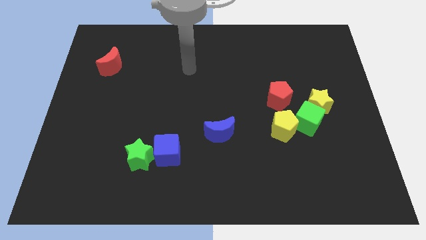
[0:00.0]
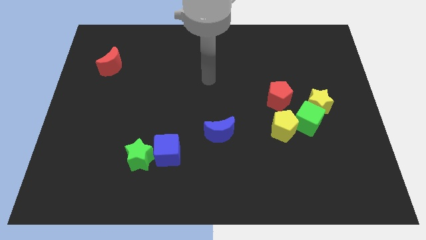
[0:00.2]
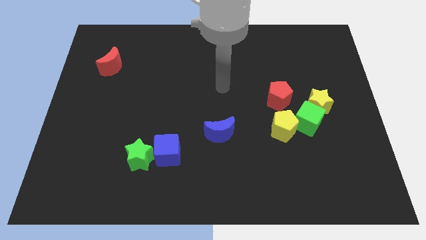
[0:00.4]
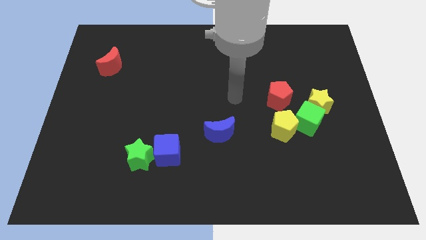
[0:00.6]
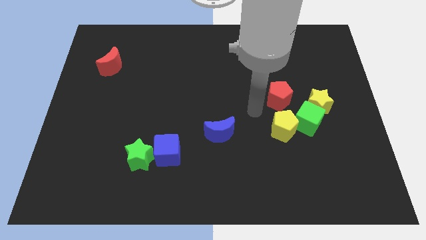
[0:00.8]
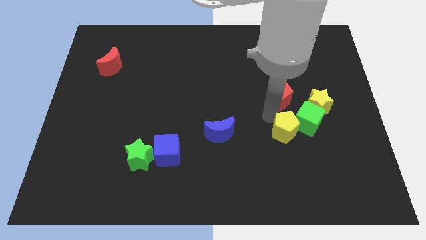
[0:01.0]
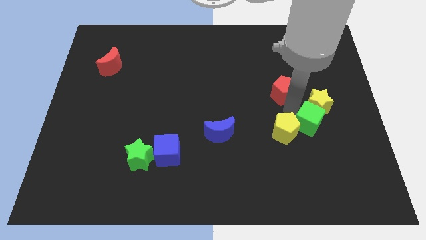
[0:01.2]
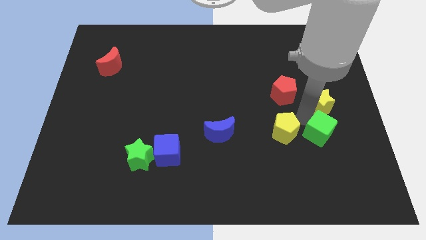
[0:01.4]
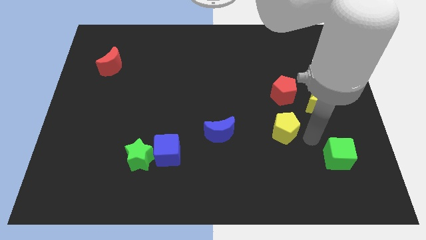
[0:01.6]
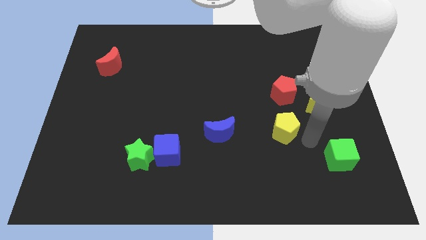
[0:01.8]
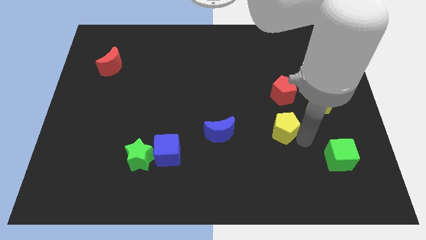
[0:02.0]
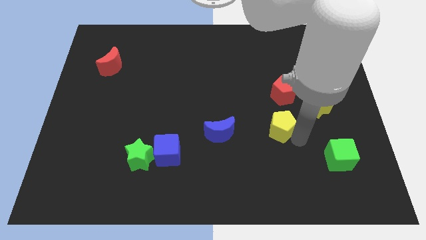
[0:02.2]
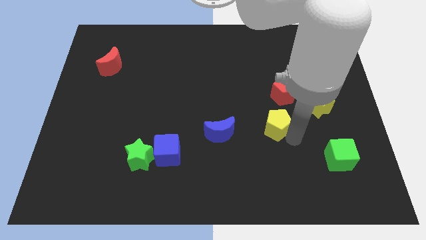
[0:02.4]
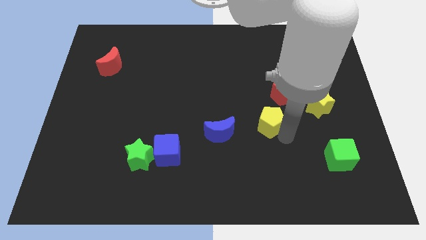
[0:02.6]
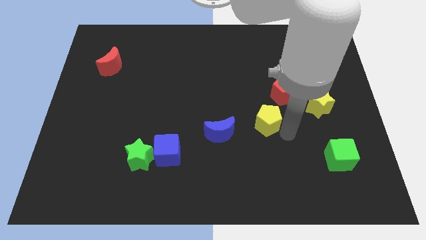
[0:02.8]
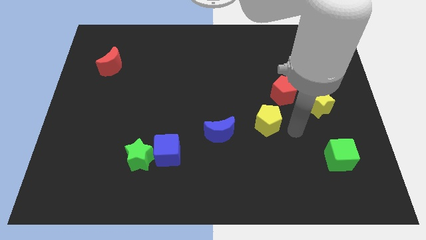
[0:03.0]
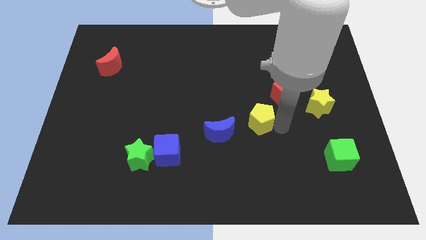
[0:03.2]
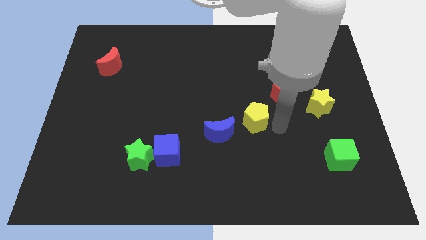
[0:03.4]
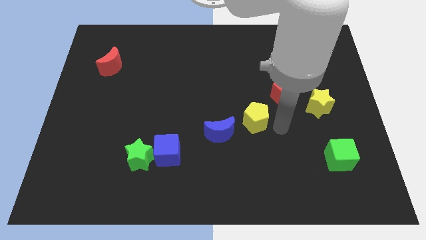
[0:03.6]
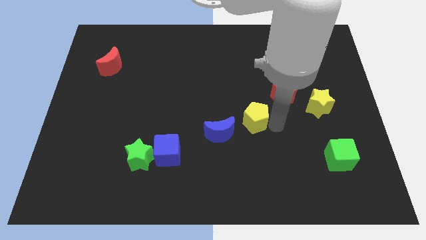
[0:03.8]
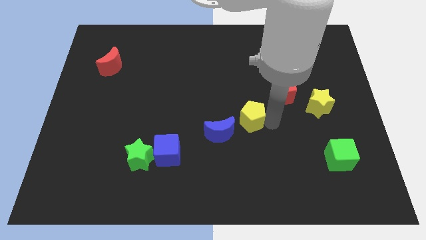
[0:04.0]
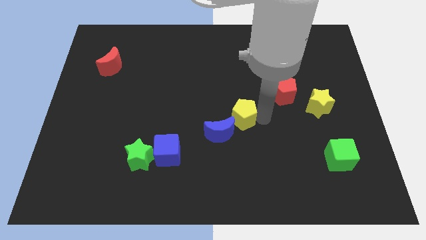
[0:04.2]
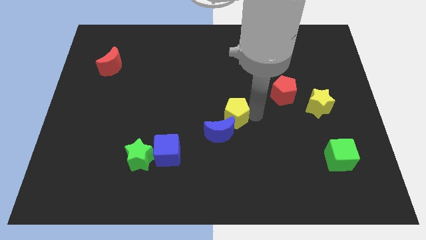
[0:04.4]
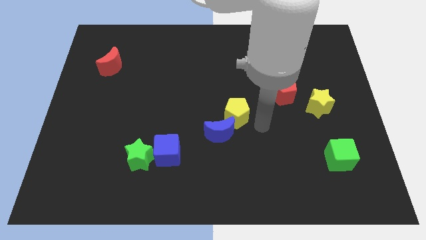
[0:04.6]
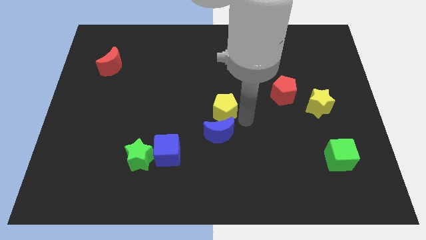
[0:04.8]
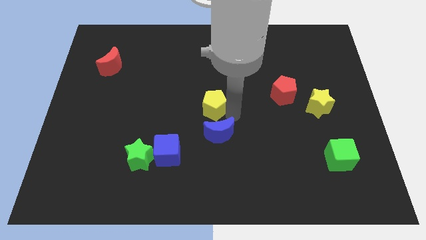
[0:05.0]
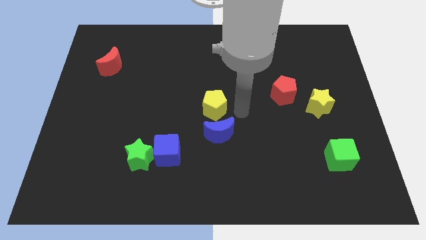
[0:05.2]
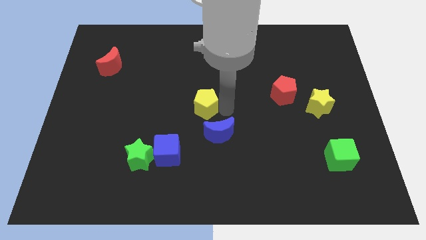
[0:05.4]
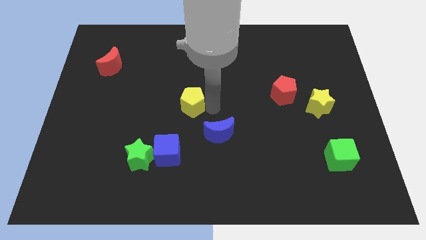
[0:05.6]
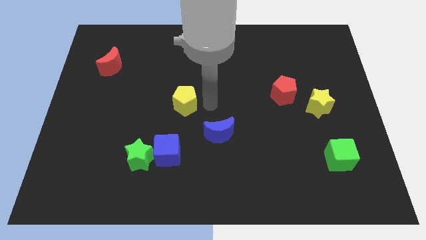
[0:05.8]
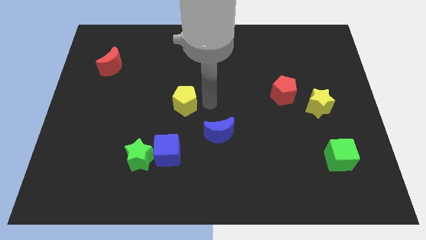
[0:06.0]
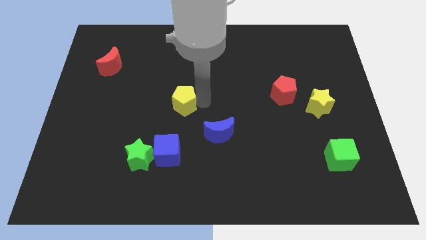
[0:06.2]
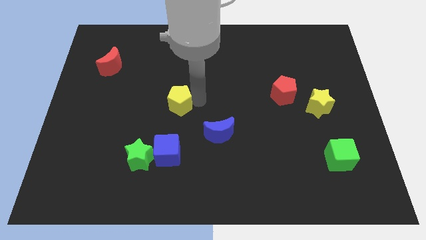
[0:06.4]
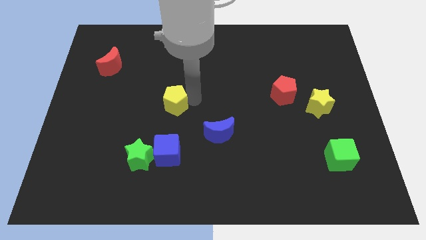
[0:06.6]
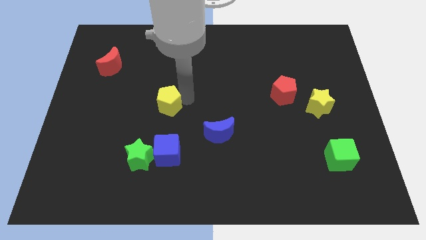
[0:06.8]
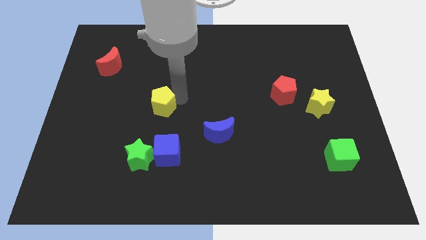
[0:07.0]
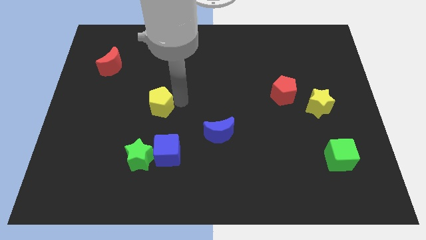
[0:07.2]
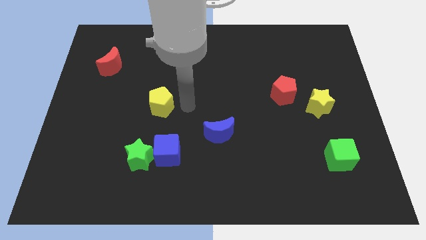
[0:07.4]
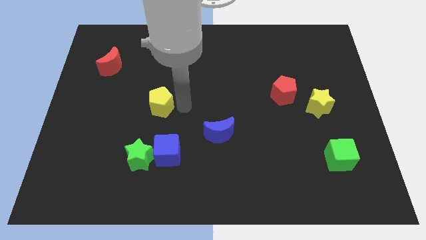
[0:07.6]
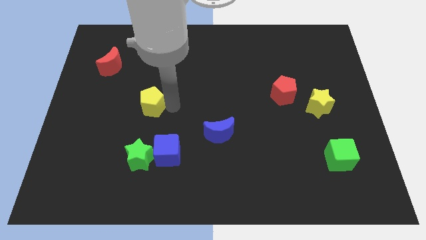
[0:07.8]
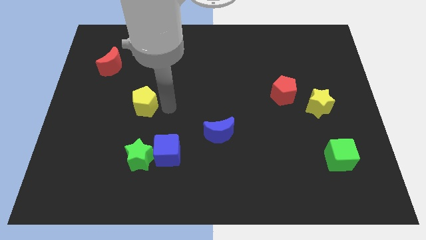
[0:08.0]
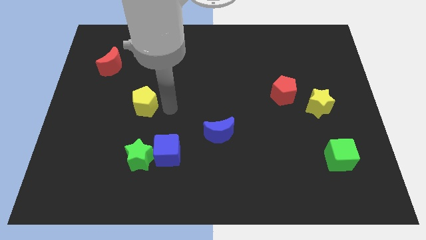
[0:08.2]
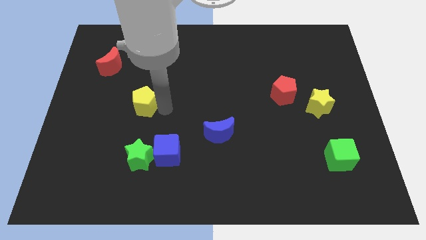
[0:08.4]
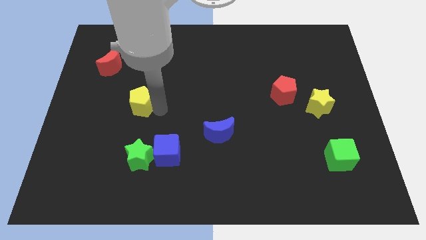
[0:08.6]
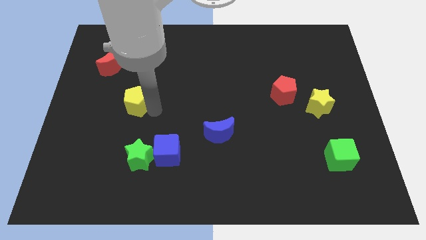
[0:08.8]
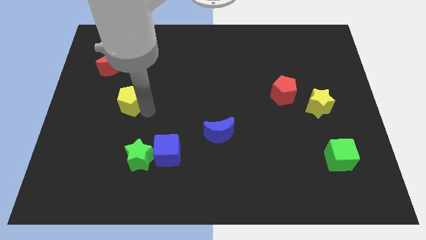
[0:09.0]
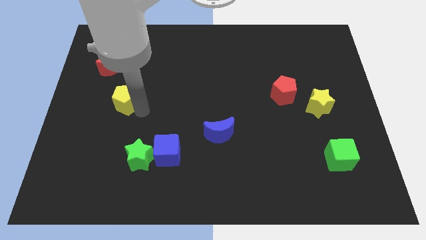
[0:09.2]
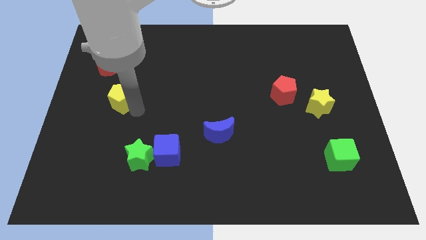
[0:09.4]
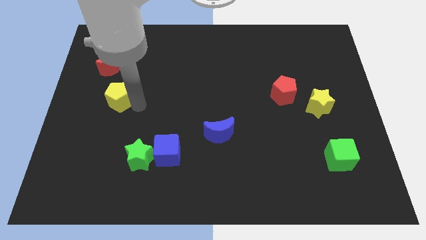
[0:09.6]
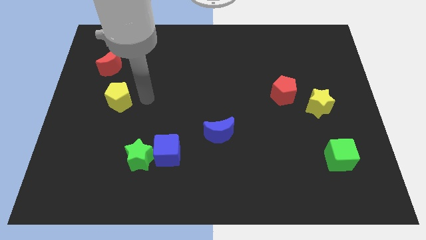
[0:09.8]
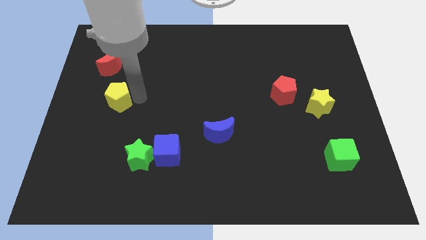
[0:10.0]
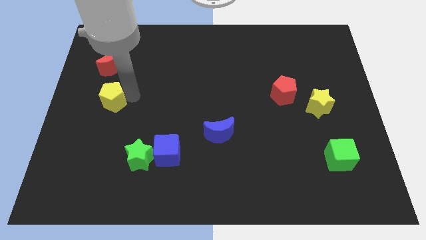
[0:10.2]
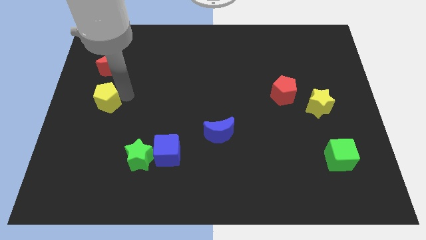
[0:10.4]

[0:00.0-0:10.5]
slide the yellow pentagon to the left side of the board

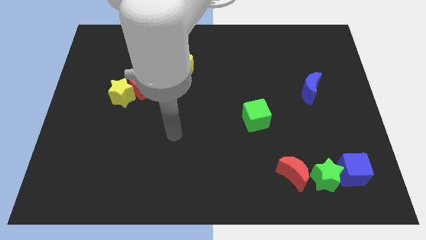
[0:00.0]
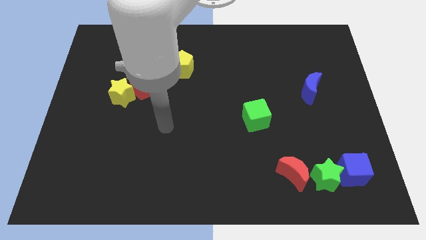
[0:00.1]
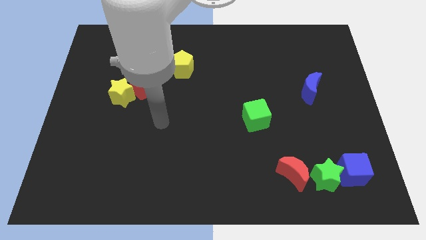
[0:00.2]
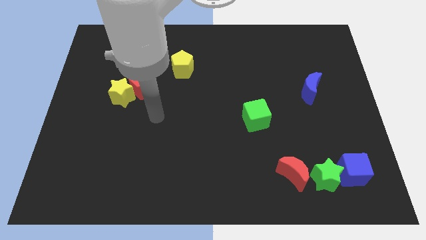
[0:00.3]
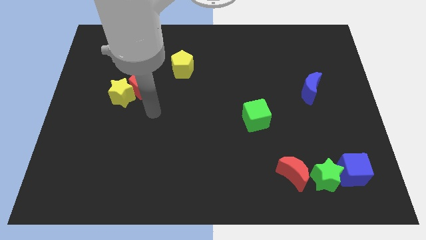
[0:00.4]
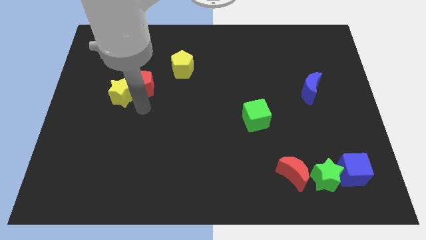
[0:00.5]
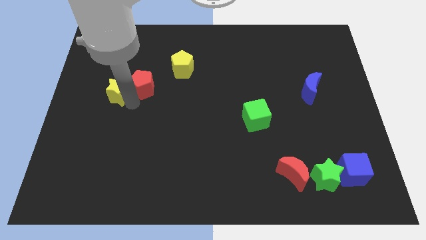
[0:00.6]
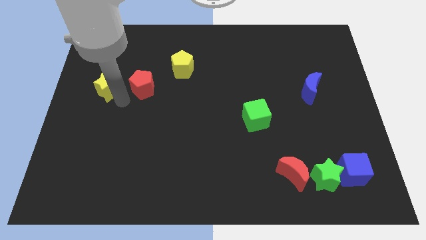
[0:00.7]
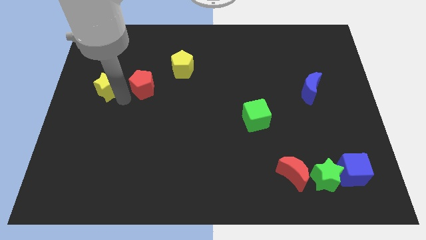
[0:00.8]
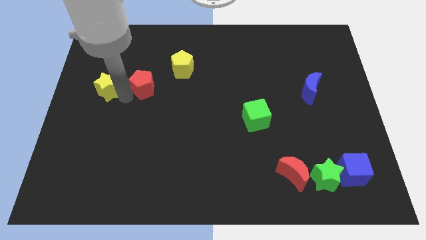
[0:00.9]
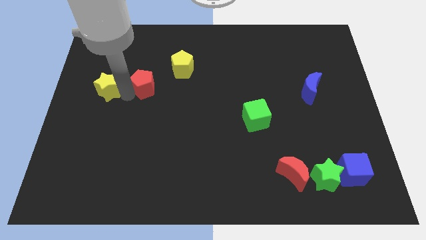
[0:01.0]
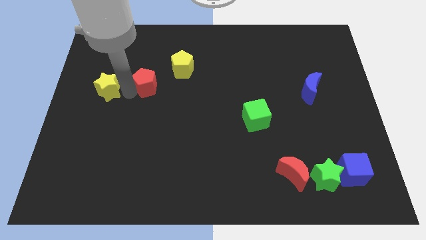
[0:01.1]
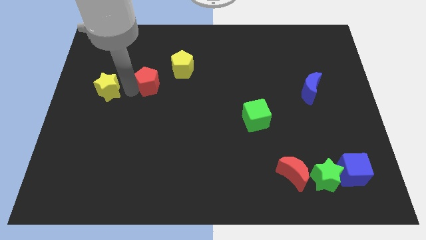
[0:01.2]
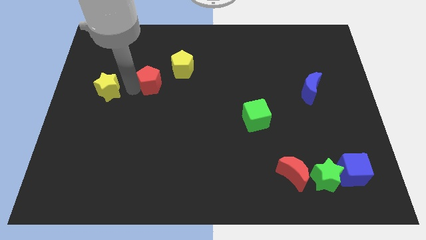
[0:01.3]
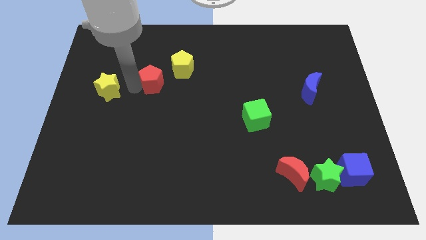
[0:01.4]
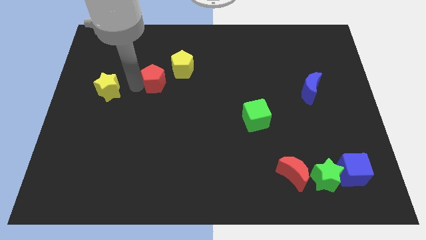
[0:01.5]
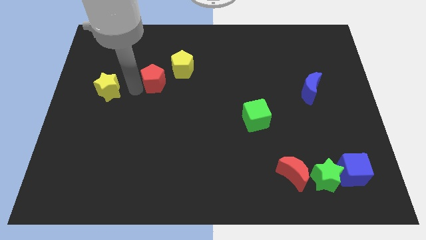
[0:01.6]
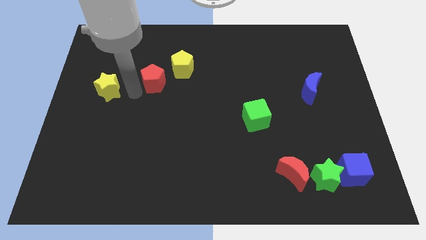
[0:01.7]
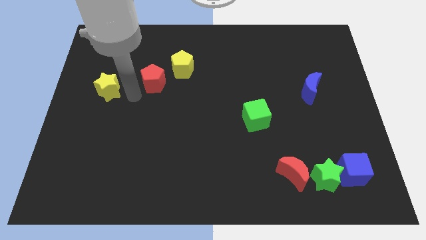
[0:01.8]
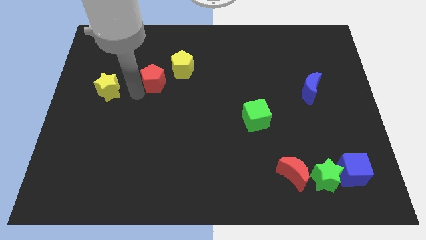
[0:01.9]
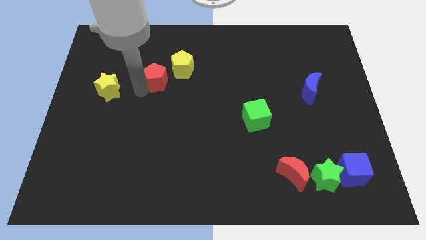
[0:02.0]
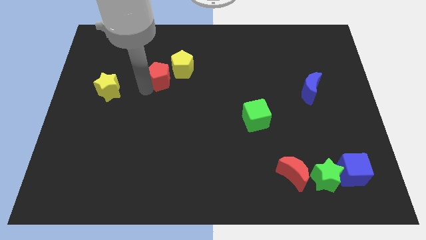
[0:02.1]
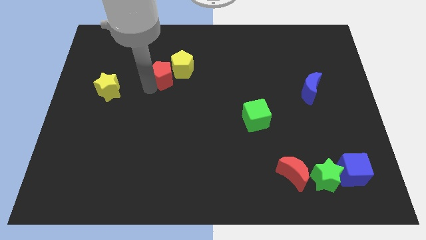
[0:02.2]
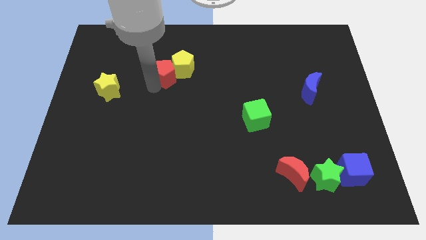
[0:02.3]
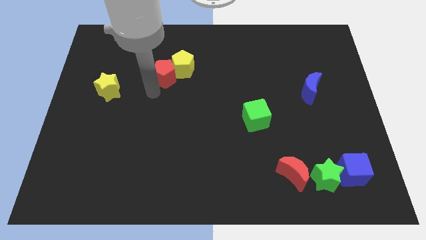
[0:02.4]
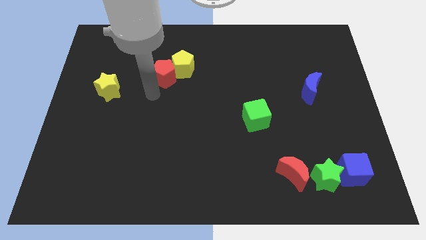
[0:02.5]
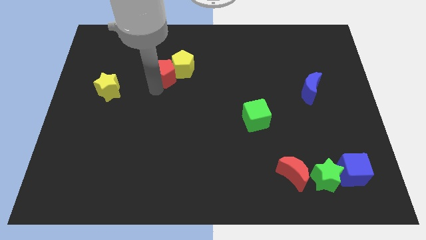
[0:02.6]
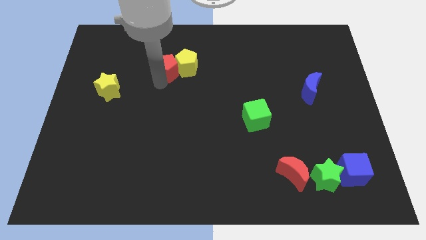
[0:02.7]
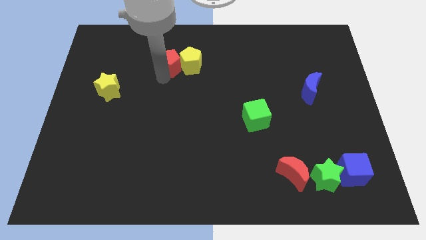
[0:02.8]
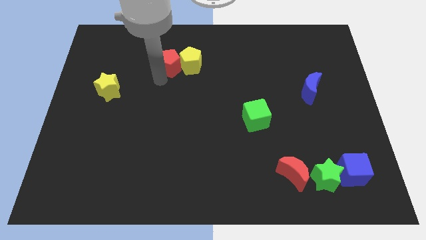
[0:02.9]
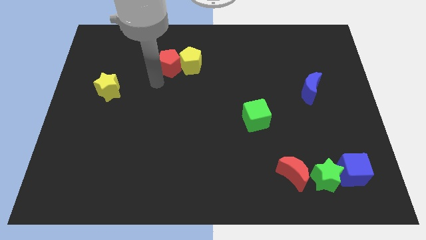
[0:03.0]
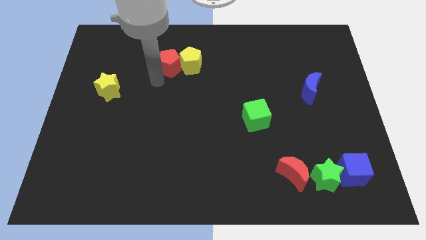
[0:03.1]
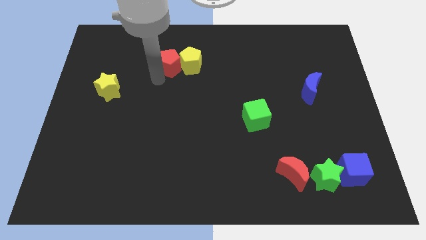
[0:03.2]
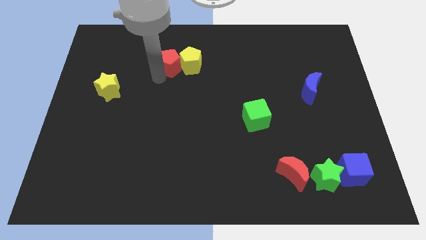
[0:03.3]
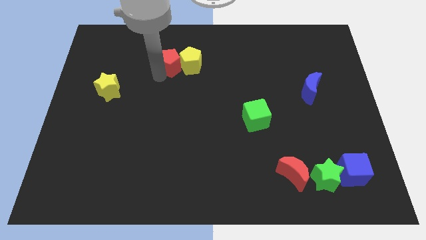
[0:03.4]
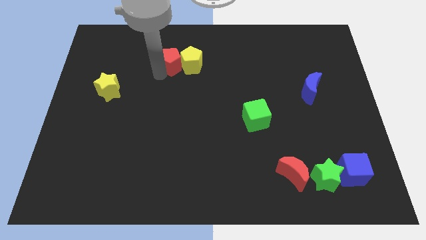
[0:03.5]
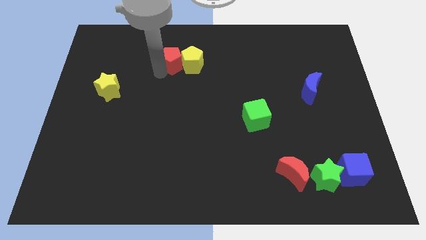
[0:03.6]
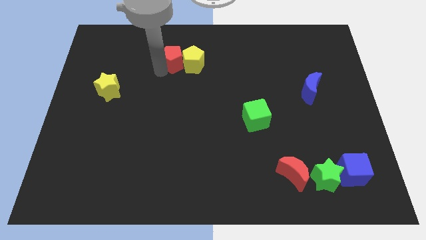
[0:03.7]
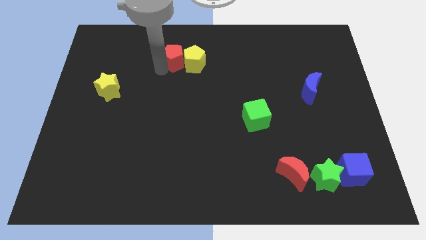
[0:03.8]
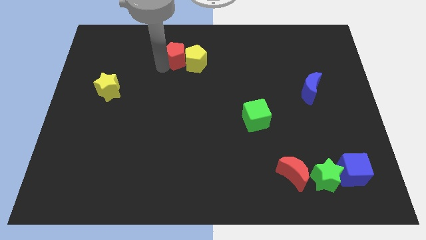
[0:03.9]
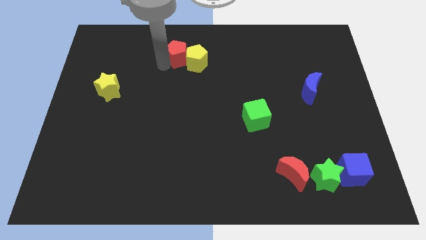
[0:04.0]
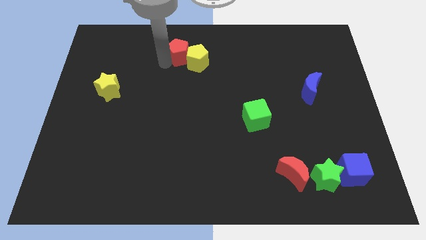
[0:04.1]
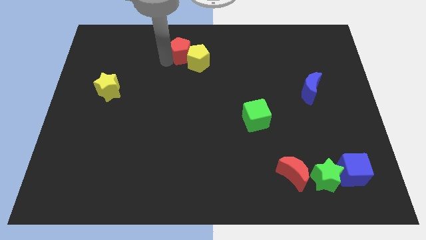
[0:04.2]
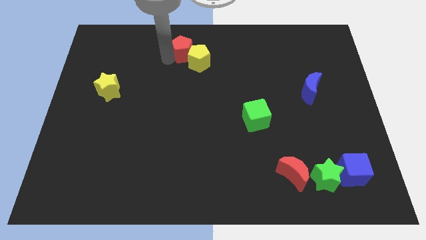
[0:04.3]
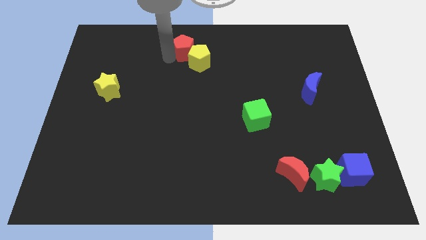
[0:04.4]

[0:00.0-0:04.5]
push the red pentagon to the top side
